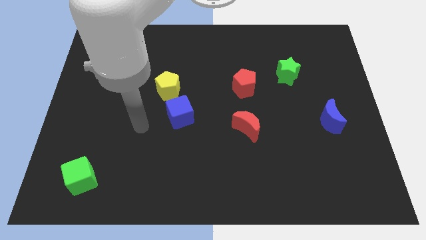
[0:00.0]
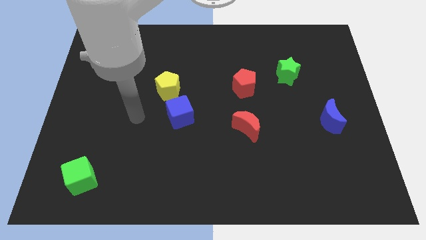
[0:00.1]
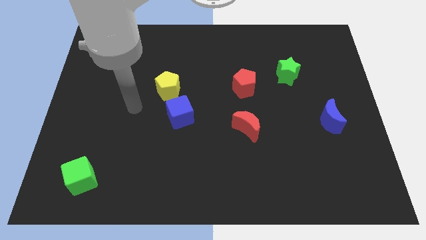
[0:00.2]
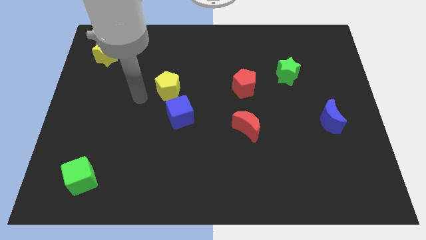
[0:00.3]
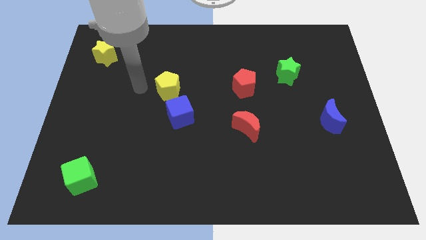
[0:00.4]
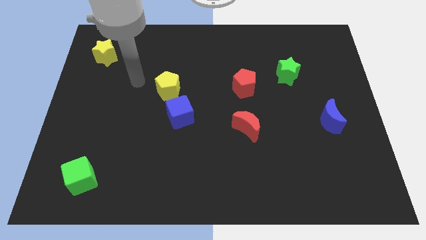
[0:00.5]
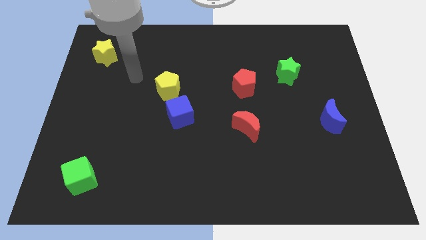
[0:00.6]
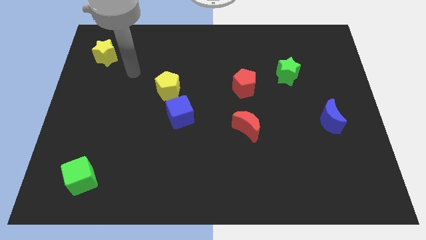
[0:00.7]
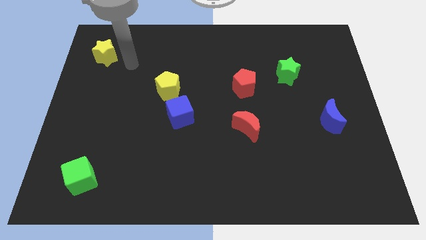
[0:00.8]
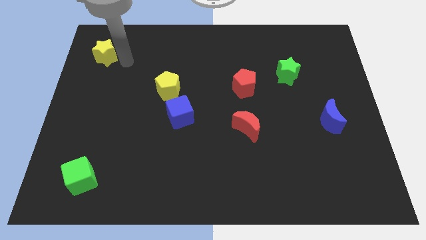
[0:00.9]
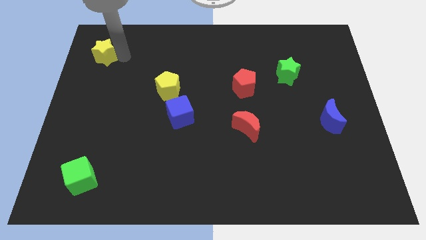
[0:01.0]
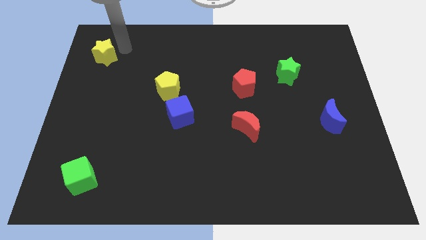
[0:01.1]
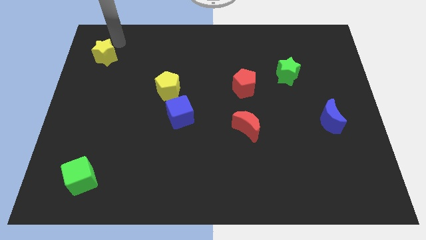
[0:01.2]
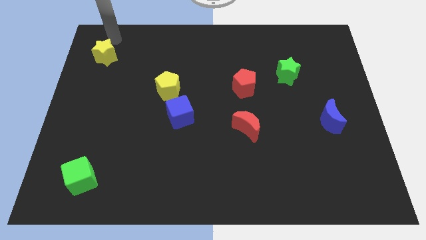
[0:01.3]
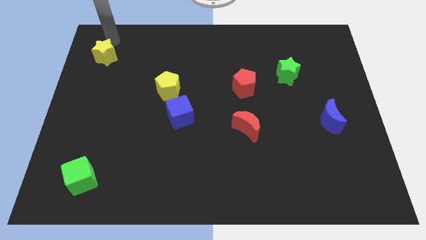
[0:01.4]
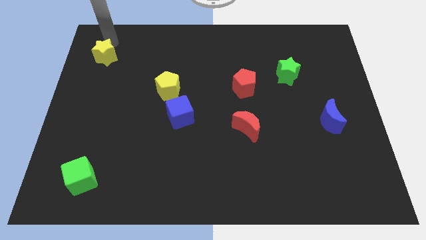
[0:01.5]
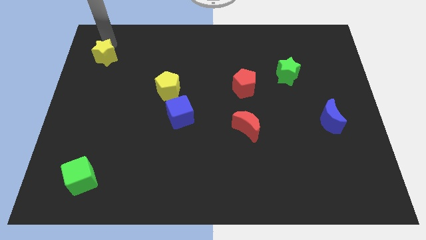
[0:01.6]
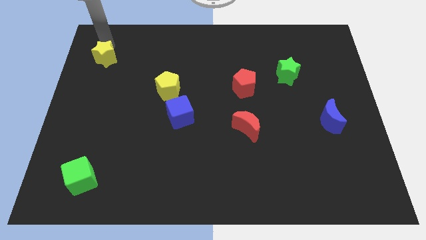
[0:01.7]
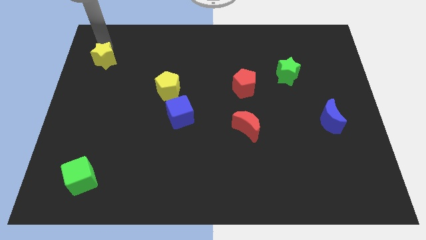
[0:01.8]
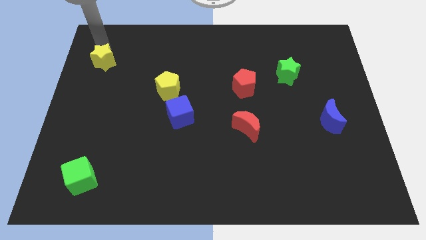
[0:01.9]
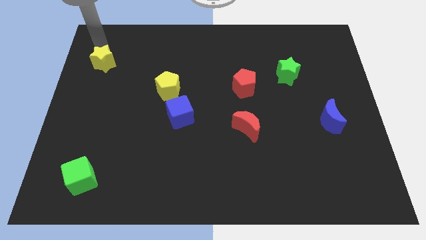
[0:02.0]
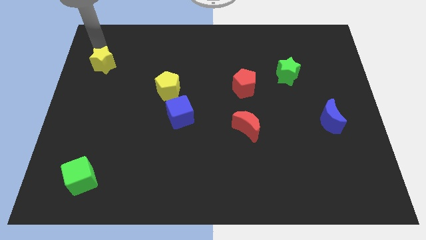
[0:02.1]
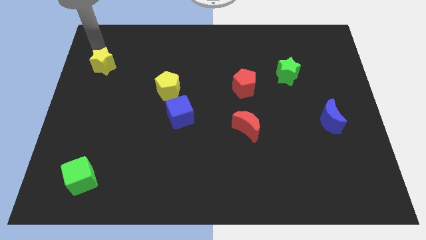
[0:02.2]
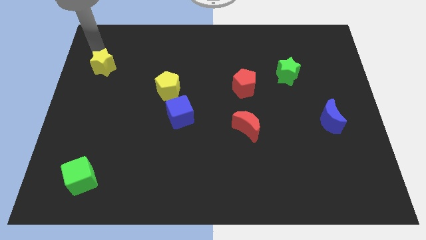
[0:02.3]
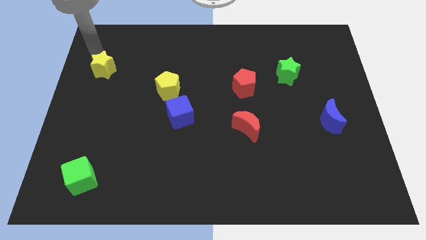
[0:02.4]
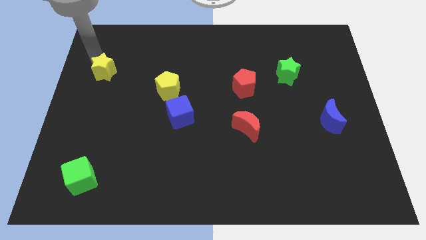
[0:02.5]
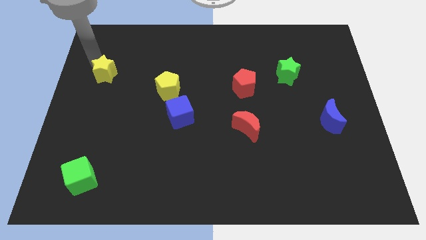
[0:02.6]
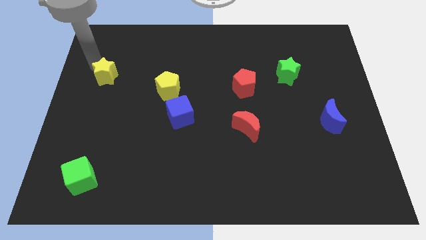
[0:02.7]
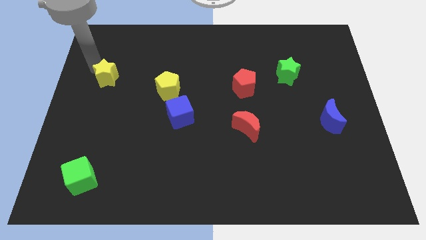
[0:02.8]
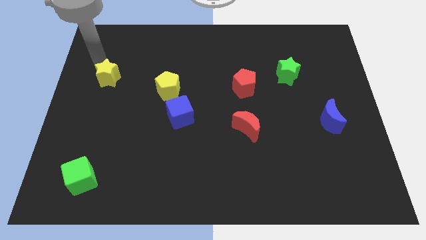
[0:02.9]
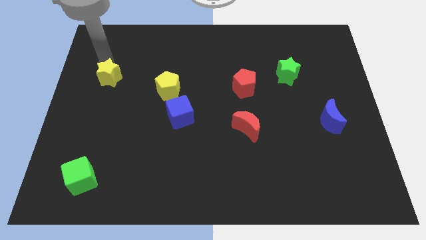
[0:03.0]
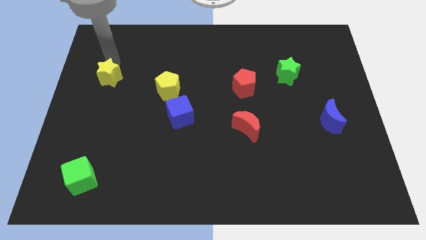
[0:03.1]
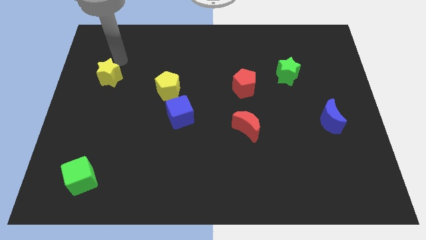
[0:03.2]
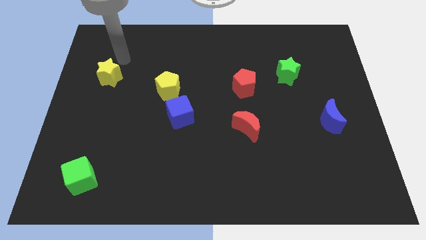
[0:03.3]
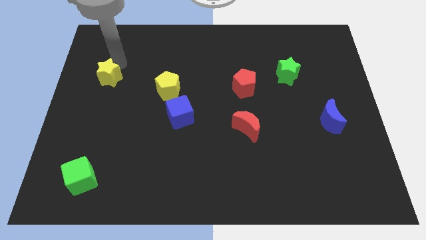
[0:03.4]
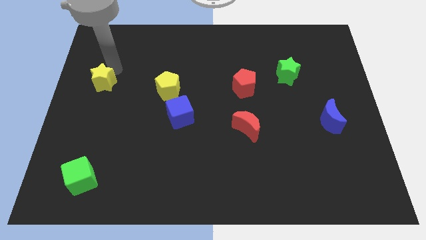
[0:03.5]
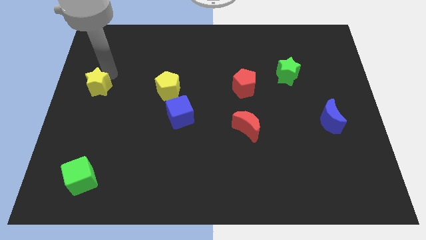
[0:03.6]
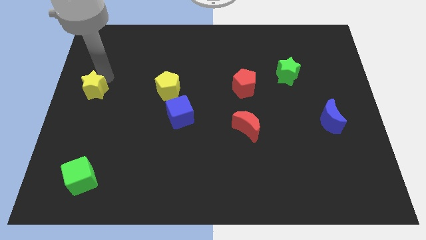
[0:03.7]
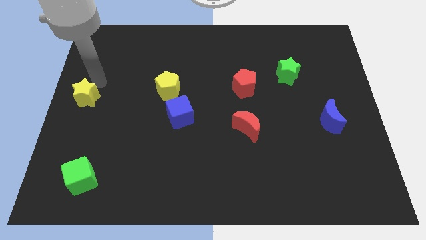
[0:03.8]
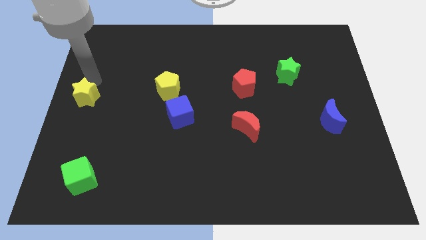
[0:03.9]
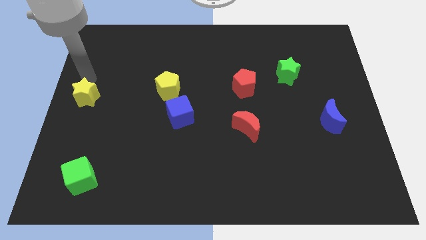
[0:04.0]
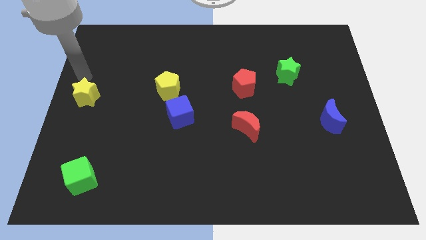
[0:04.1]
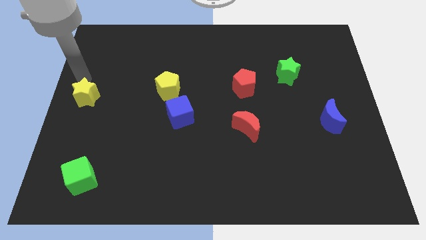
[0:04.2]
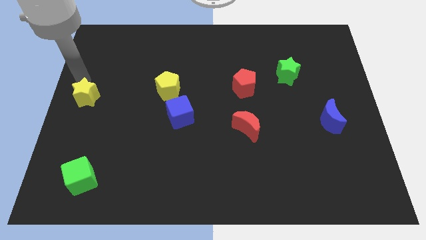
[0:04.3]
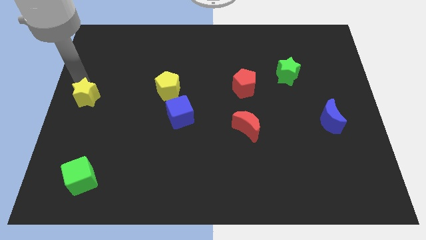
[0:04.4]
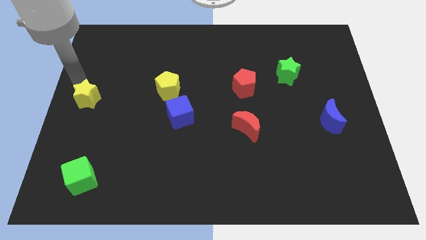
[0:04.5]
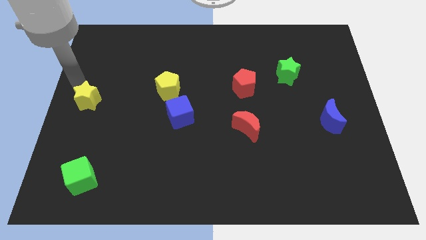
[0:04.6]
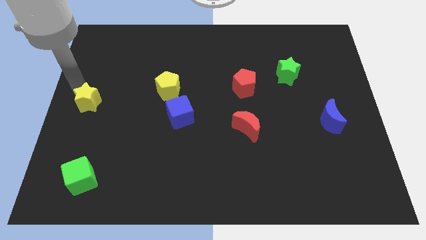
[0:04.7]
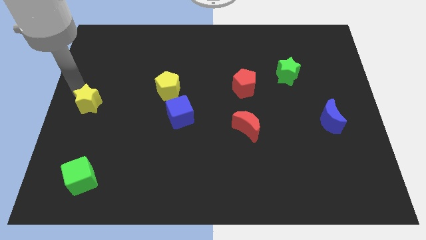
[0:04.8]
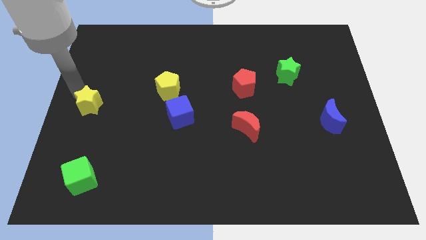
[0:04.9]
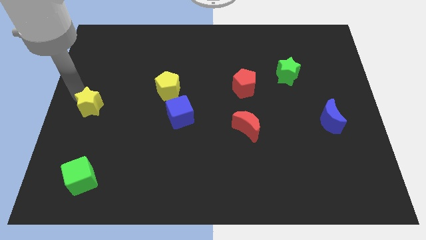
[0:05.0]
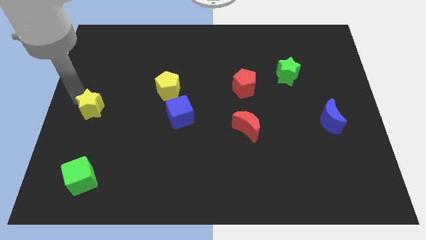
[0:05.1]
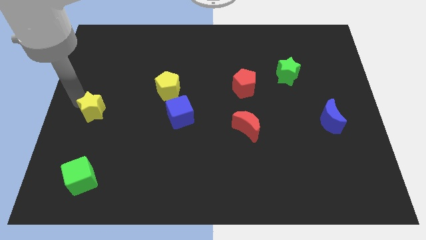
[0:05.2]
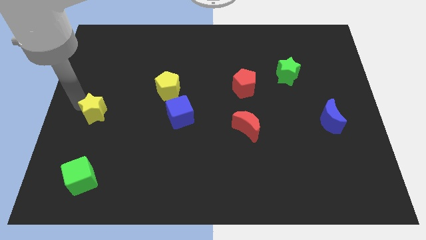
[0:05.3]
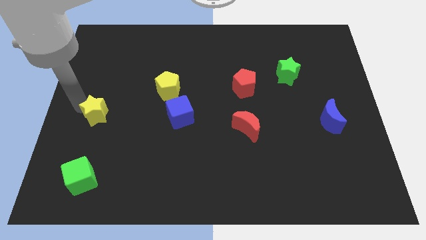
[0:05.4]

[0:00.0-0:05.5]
slide the yellow star to the top of the green cube

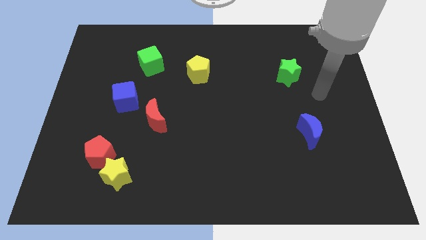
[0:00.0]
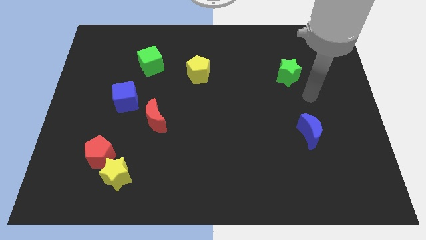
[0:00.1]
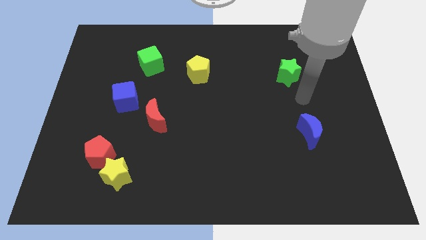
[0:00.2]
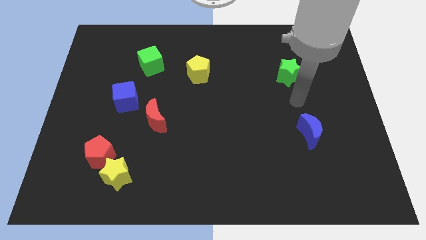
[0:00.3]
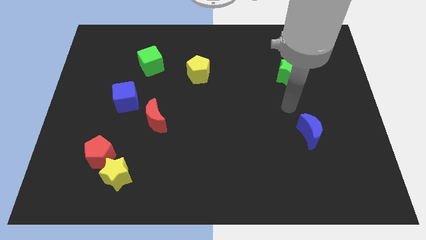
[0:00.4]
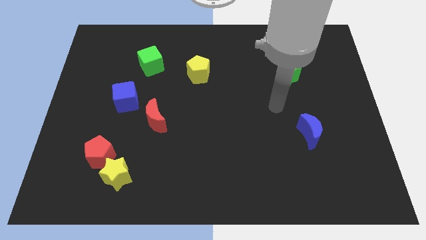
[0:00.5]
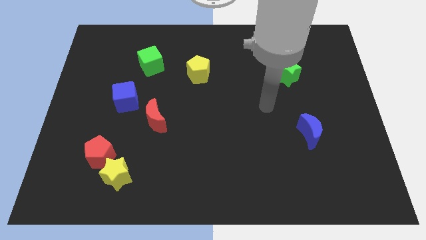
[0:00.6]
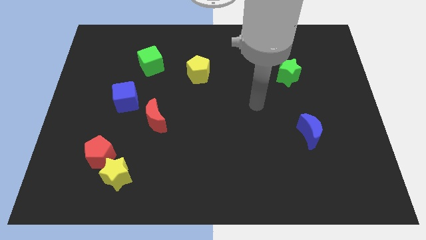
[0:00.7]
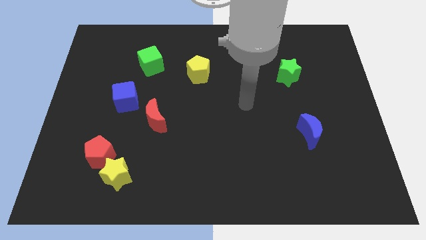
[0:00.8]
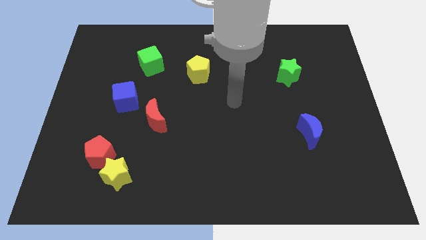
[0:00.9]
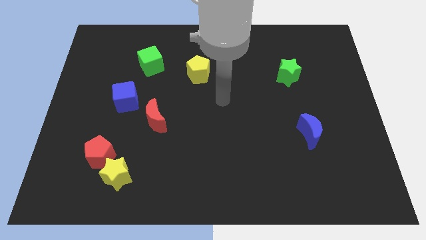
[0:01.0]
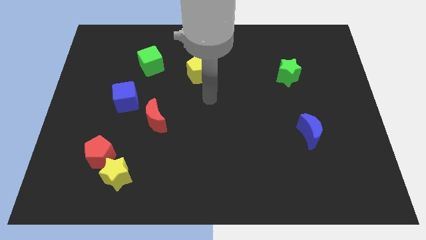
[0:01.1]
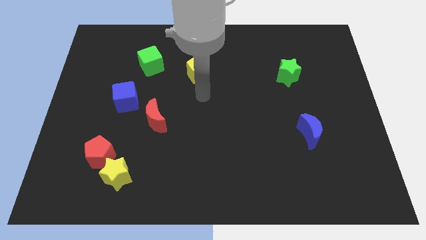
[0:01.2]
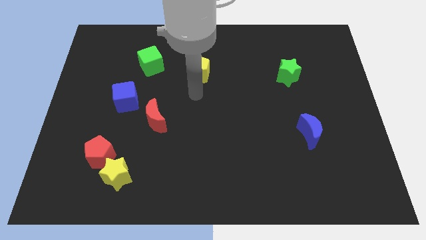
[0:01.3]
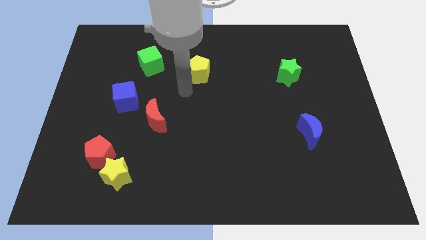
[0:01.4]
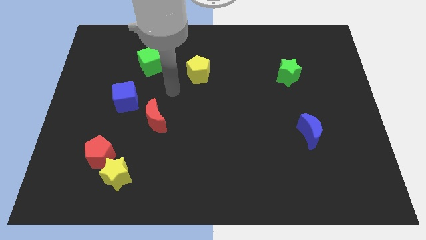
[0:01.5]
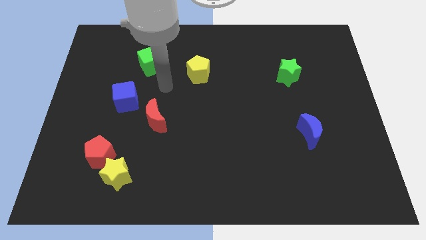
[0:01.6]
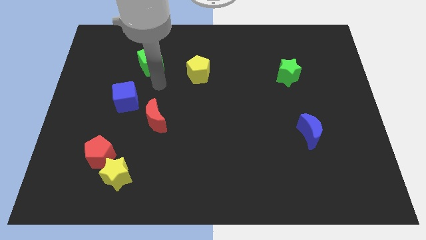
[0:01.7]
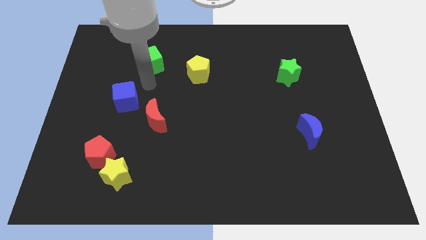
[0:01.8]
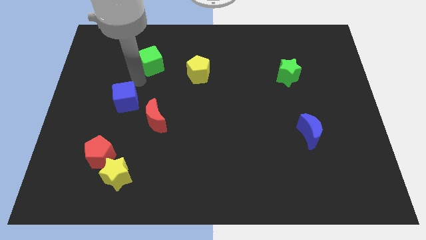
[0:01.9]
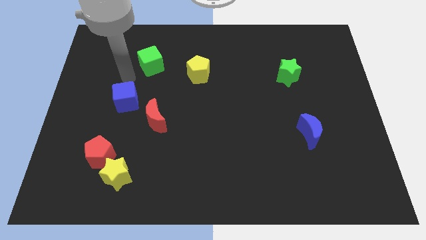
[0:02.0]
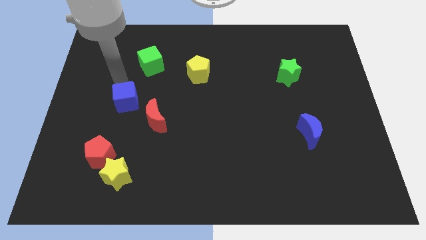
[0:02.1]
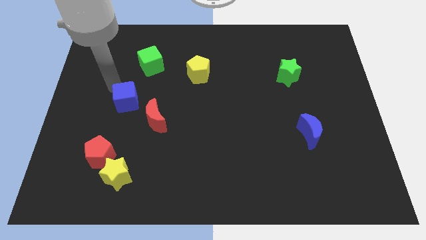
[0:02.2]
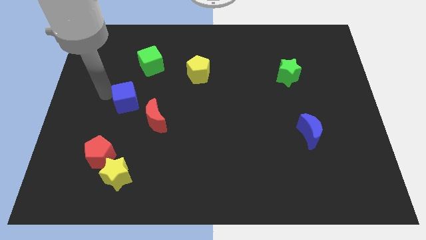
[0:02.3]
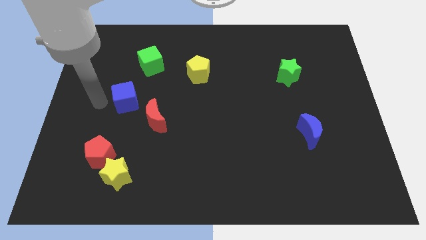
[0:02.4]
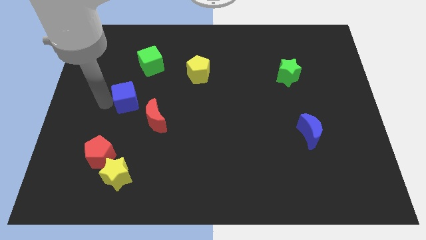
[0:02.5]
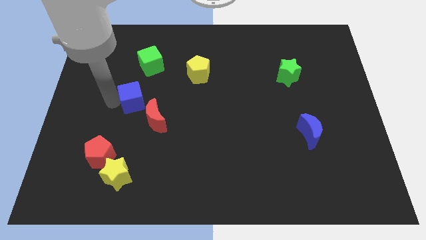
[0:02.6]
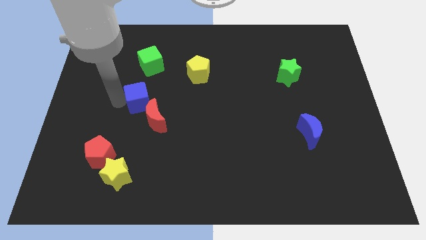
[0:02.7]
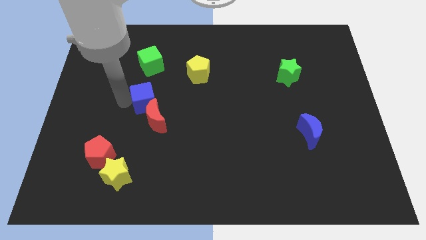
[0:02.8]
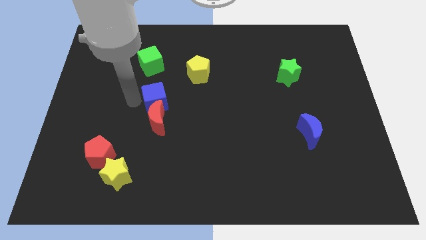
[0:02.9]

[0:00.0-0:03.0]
push the blue cube to the top right of the red moon
